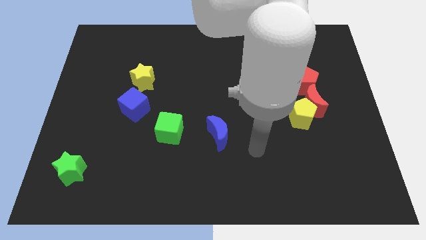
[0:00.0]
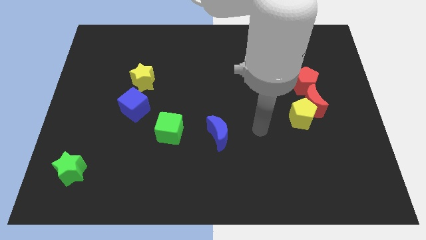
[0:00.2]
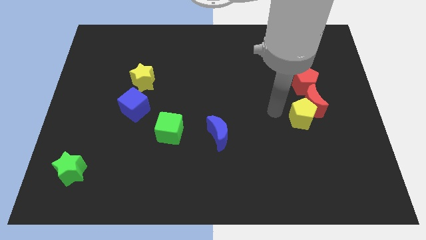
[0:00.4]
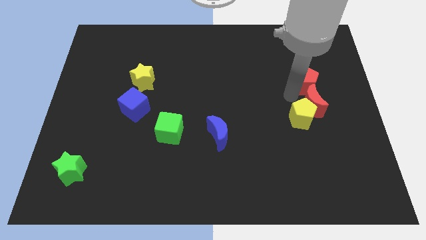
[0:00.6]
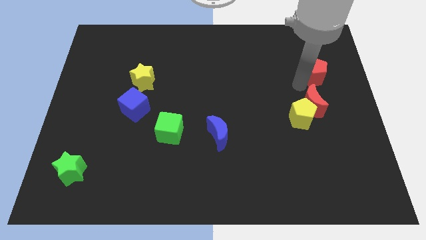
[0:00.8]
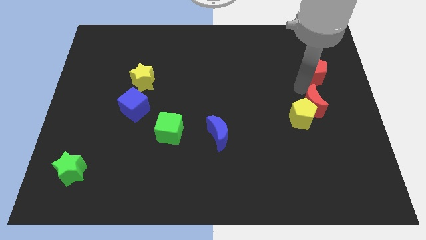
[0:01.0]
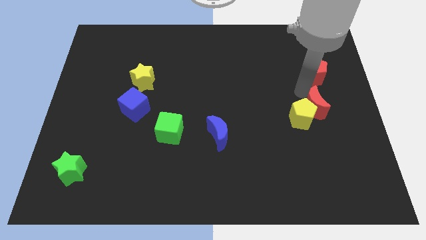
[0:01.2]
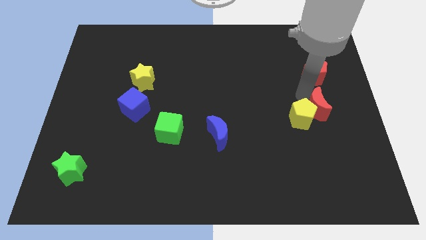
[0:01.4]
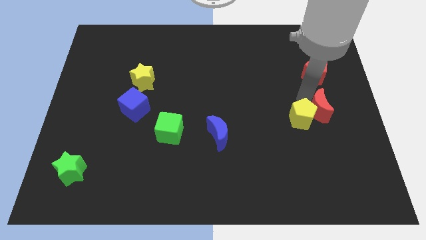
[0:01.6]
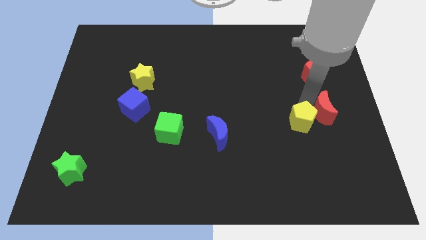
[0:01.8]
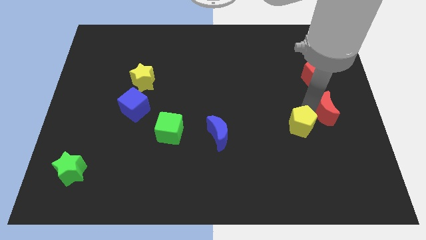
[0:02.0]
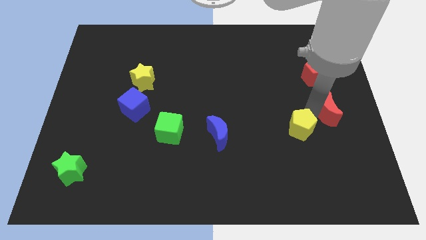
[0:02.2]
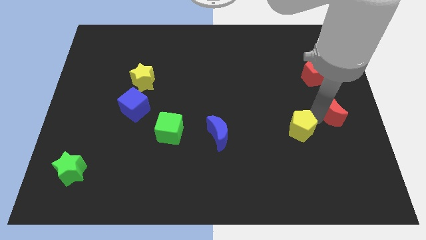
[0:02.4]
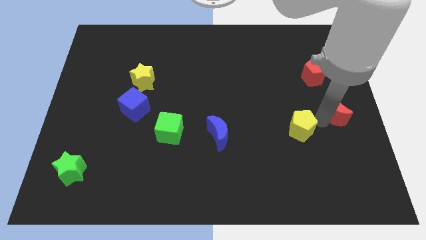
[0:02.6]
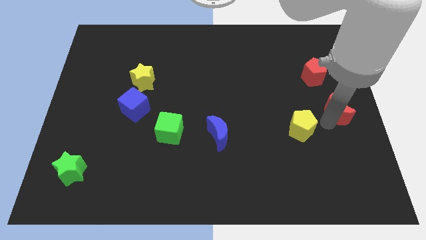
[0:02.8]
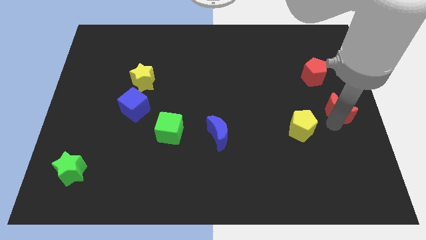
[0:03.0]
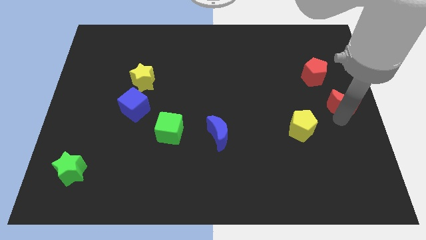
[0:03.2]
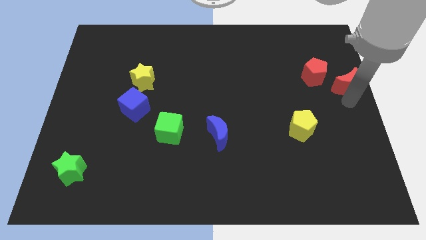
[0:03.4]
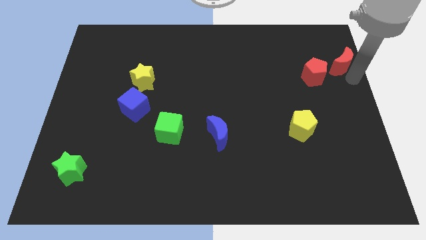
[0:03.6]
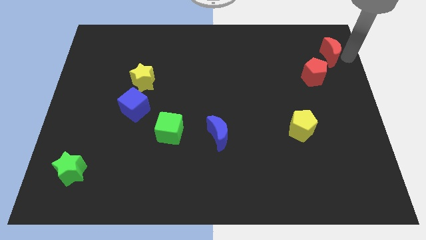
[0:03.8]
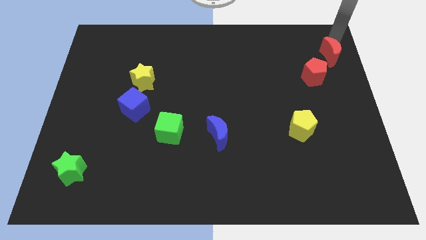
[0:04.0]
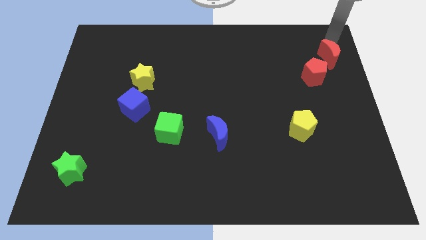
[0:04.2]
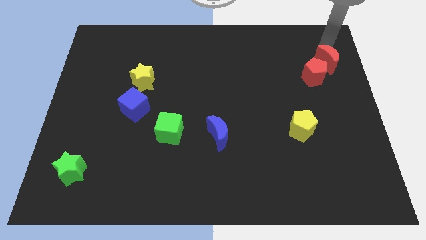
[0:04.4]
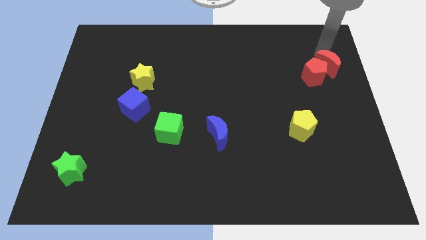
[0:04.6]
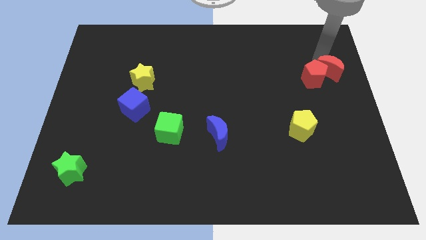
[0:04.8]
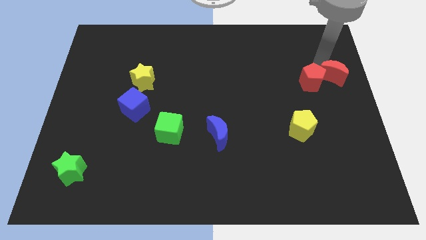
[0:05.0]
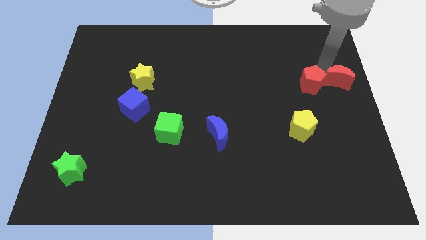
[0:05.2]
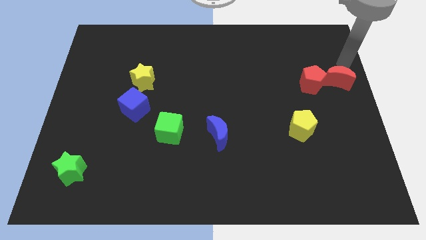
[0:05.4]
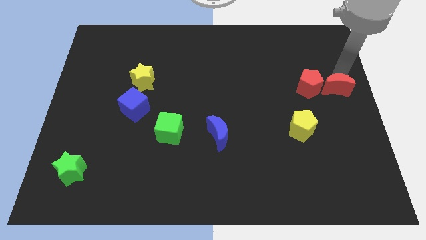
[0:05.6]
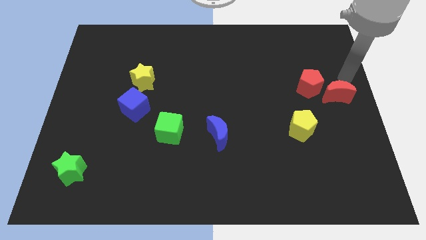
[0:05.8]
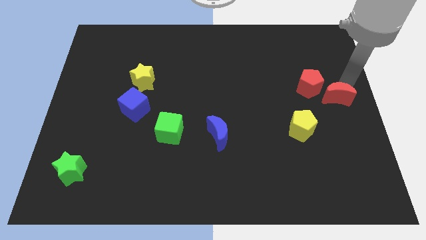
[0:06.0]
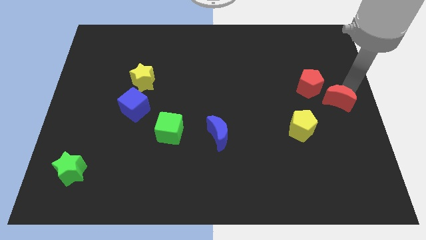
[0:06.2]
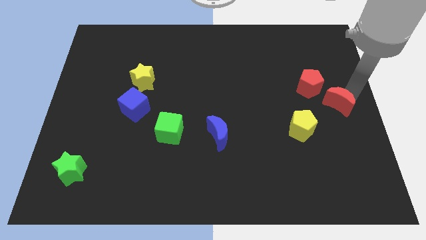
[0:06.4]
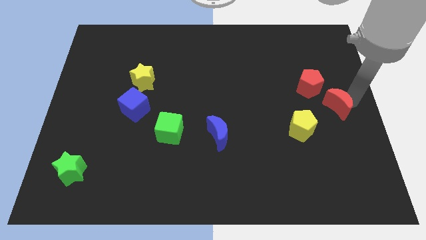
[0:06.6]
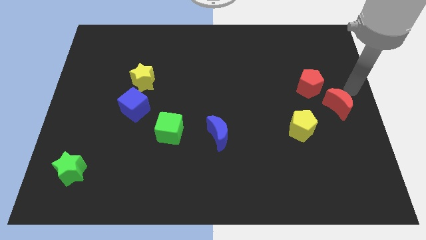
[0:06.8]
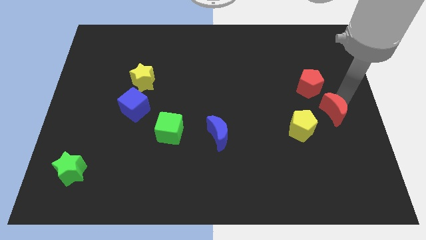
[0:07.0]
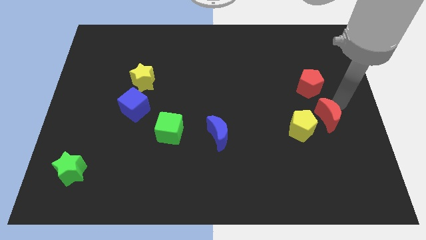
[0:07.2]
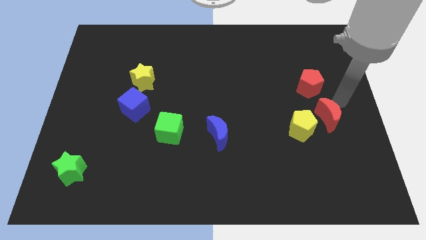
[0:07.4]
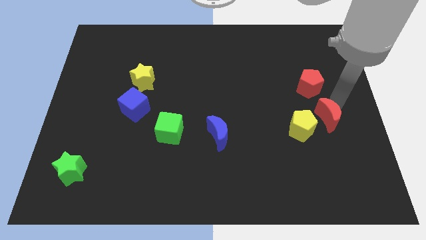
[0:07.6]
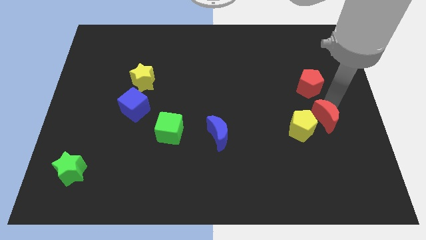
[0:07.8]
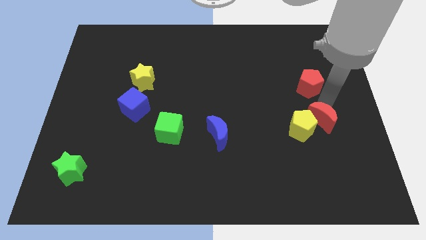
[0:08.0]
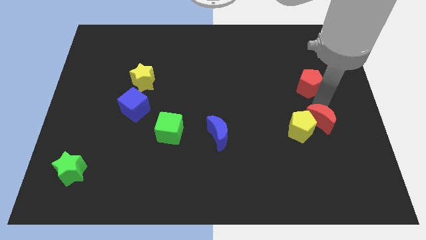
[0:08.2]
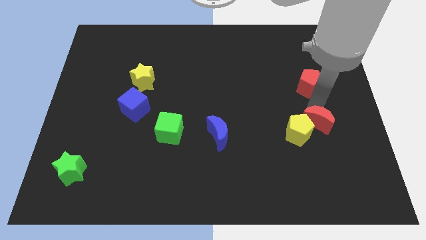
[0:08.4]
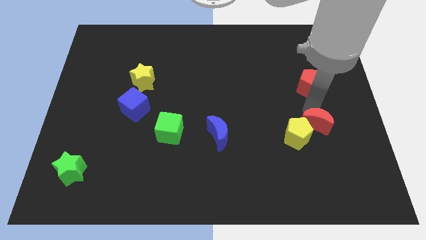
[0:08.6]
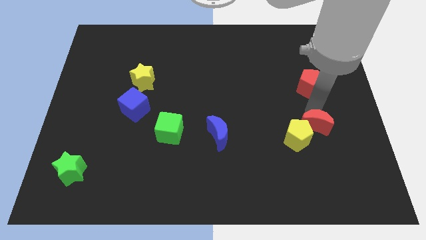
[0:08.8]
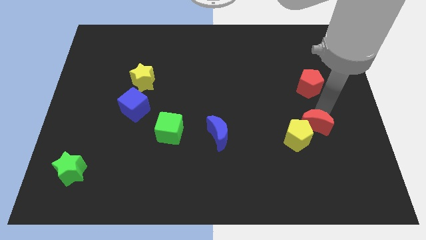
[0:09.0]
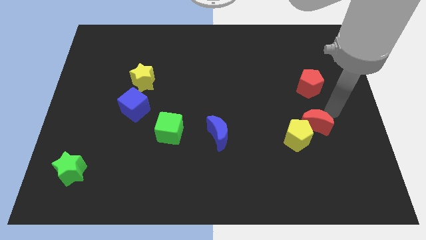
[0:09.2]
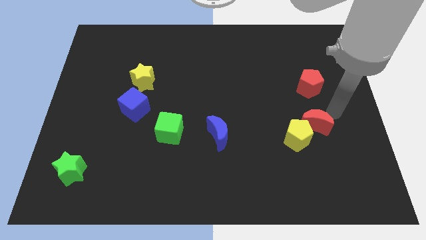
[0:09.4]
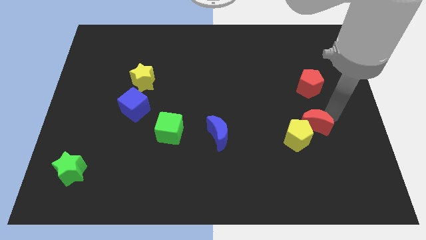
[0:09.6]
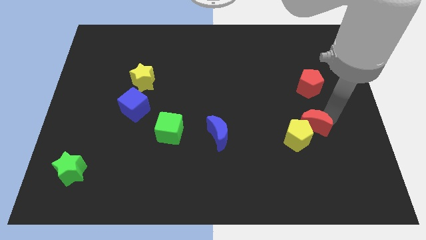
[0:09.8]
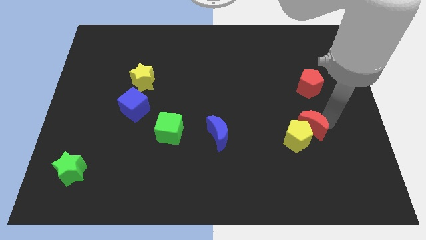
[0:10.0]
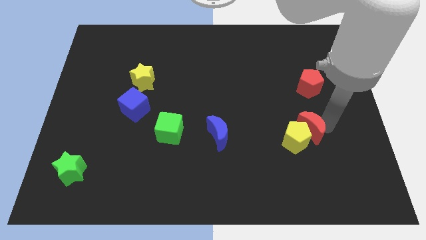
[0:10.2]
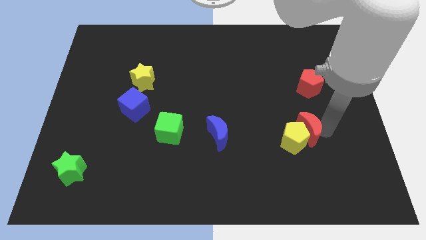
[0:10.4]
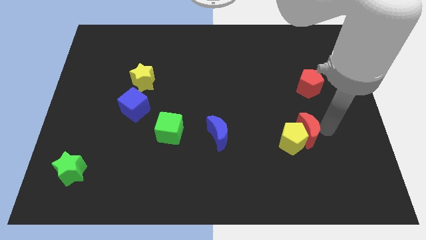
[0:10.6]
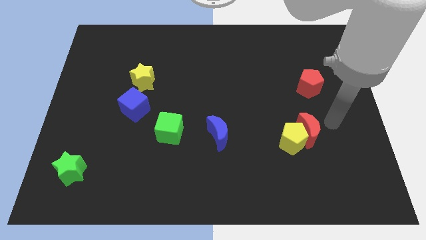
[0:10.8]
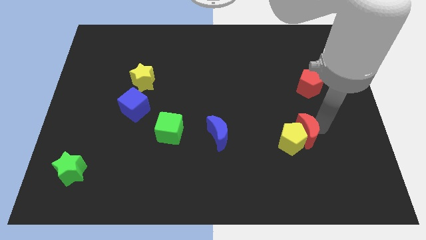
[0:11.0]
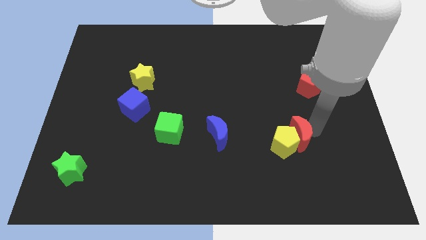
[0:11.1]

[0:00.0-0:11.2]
slide the red moon a bit down and then left

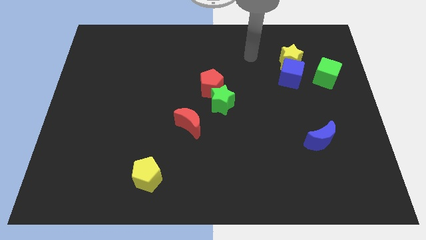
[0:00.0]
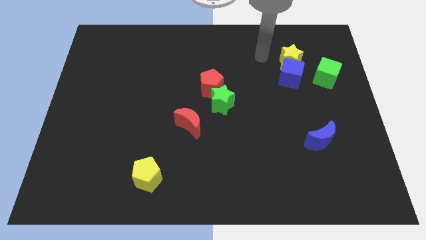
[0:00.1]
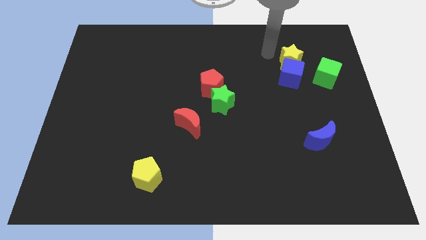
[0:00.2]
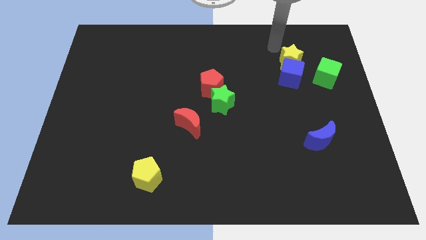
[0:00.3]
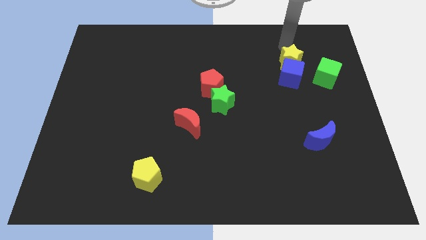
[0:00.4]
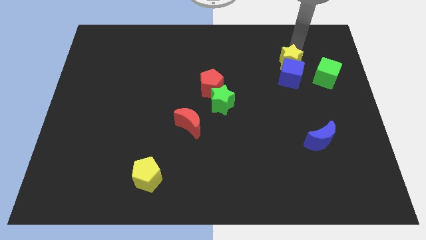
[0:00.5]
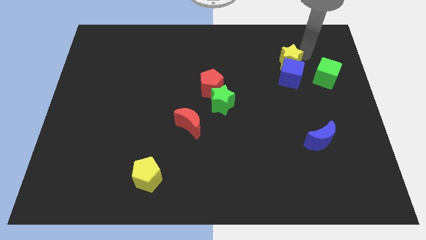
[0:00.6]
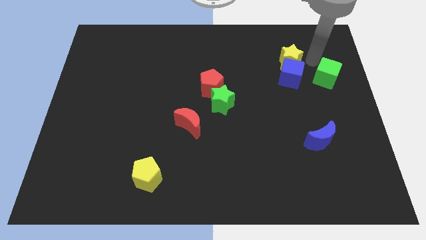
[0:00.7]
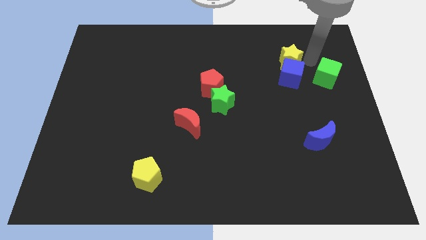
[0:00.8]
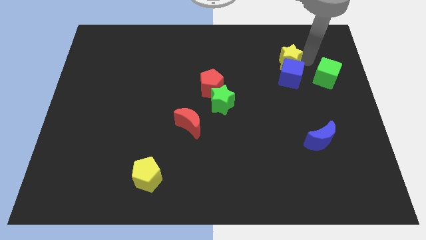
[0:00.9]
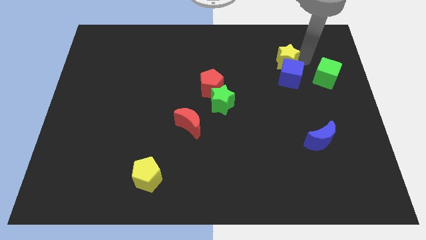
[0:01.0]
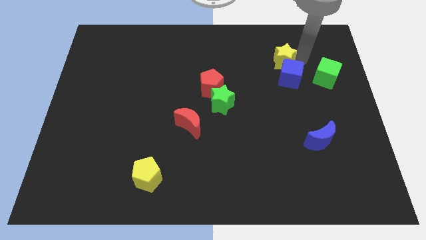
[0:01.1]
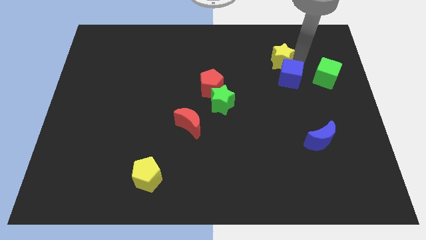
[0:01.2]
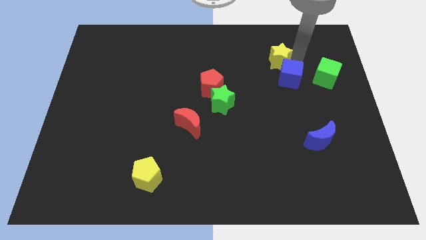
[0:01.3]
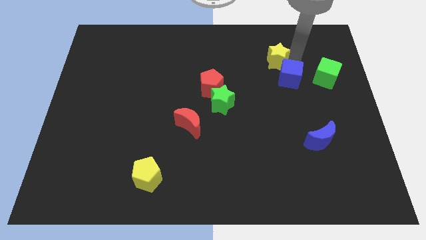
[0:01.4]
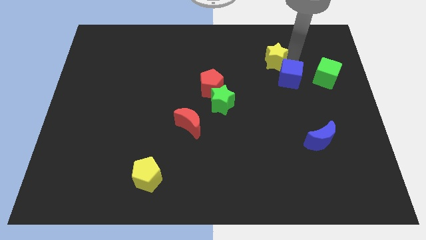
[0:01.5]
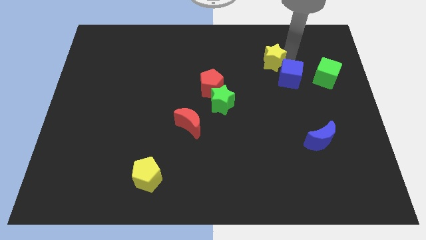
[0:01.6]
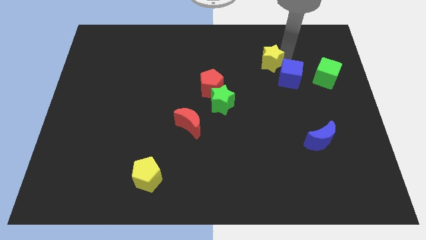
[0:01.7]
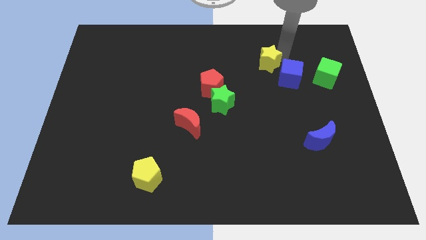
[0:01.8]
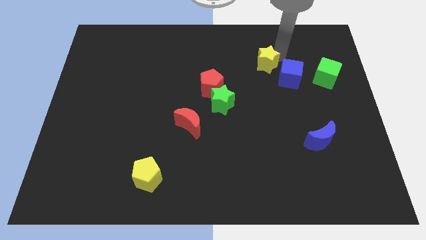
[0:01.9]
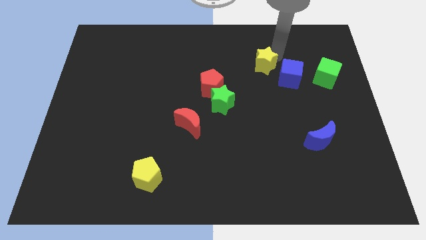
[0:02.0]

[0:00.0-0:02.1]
move the yellow star left somewhat

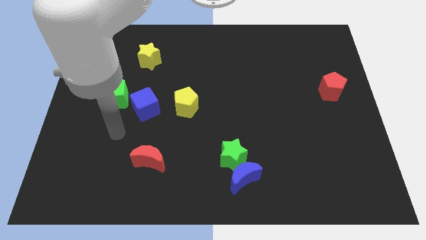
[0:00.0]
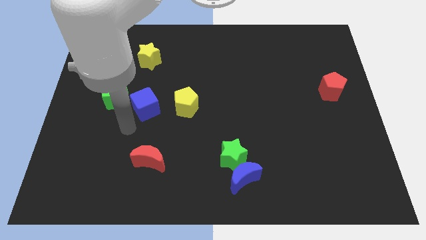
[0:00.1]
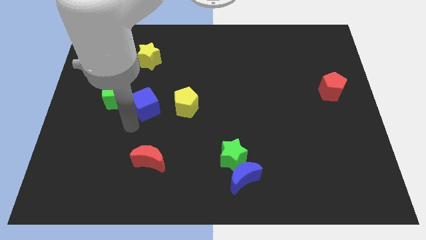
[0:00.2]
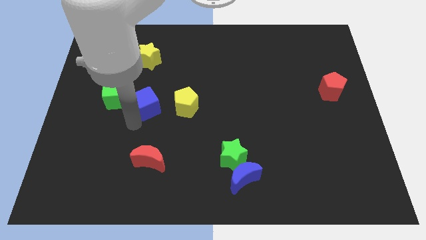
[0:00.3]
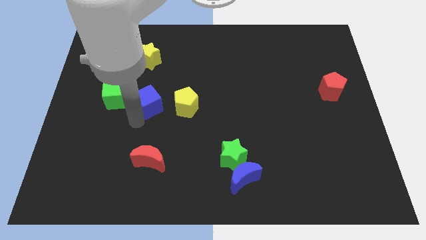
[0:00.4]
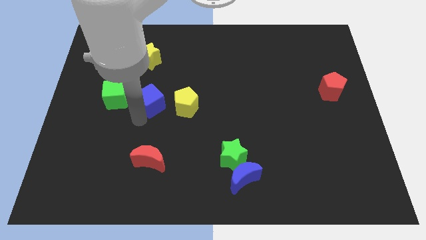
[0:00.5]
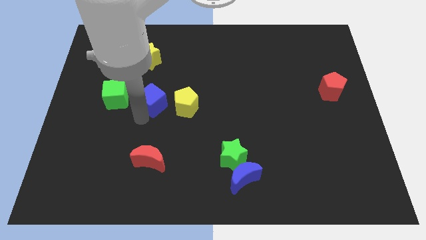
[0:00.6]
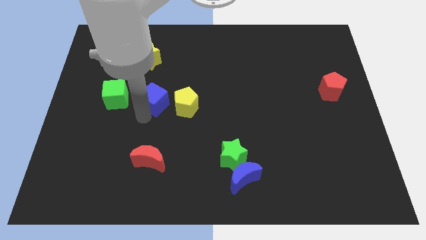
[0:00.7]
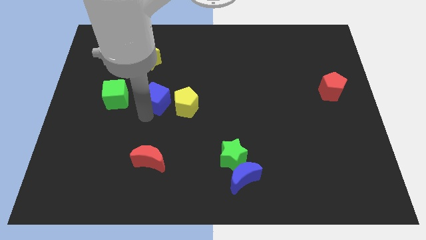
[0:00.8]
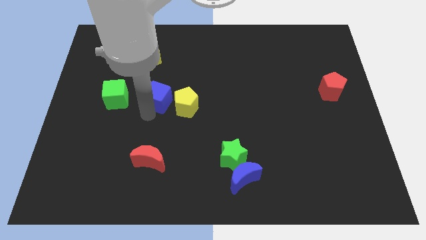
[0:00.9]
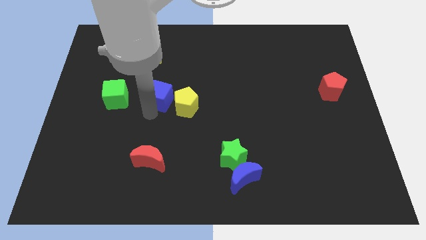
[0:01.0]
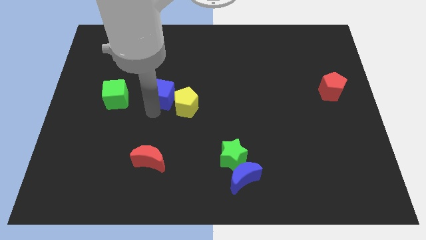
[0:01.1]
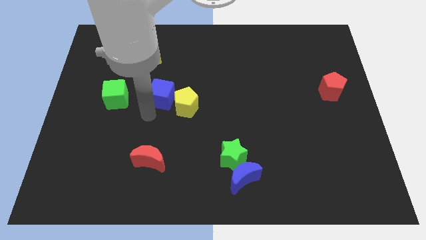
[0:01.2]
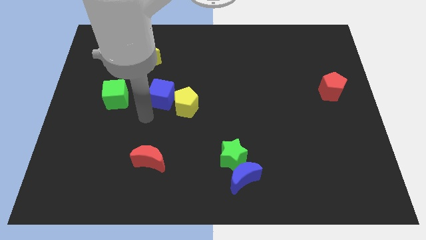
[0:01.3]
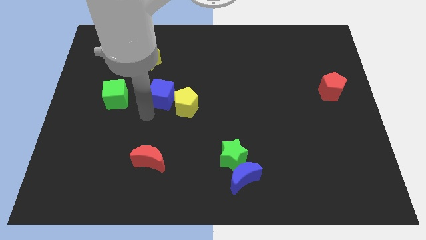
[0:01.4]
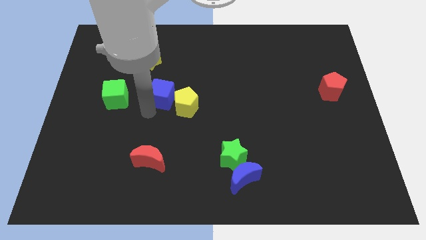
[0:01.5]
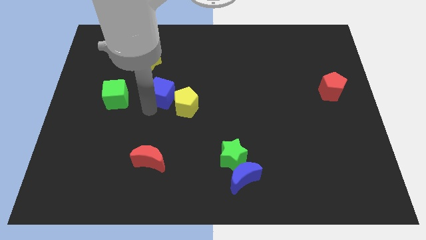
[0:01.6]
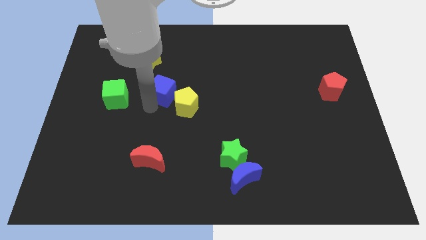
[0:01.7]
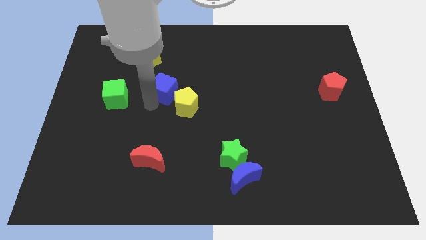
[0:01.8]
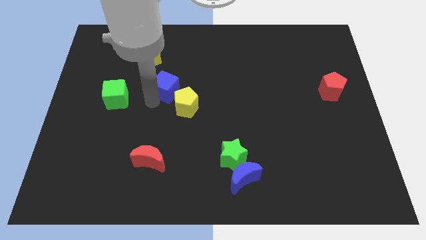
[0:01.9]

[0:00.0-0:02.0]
push the blue cube slightly up and then right
